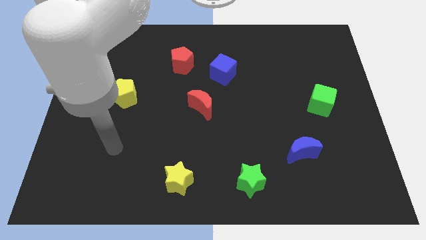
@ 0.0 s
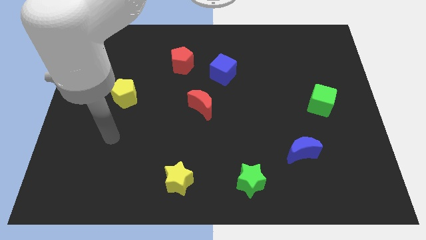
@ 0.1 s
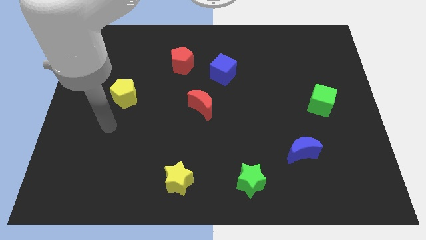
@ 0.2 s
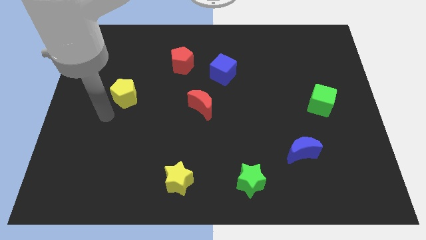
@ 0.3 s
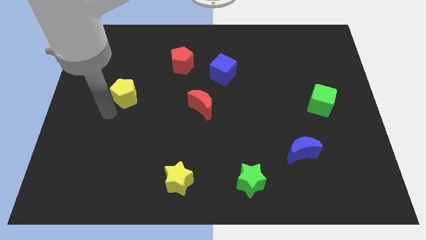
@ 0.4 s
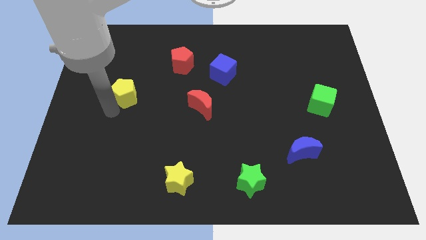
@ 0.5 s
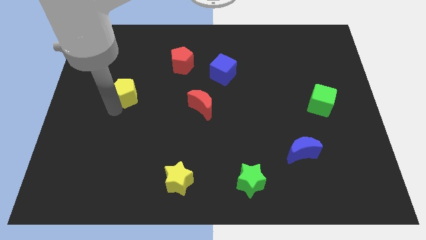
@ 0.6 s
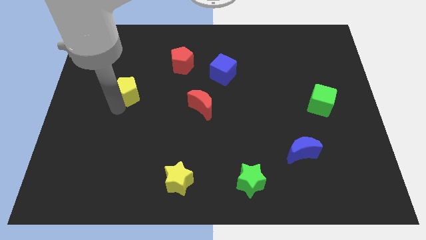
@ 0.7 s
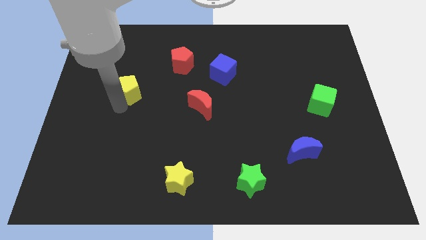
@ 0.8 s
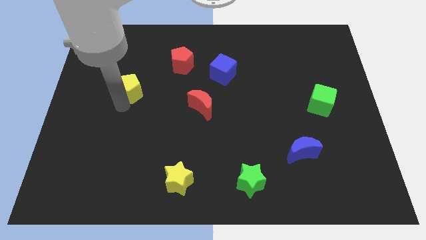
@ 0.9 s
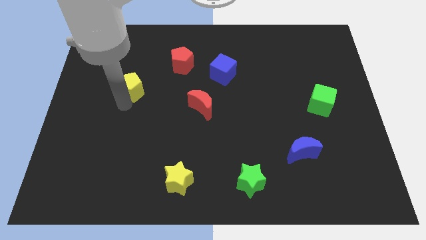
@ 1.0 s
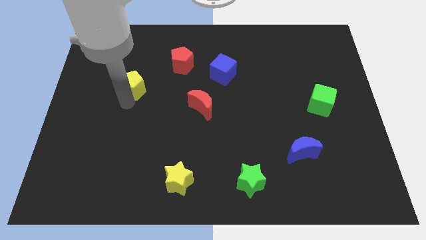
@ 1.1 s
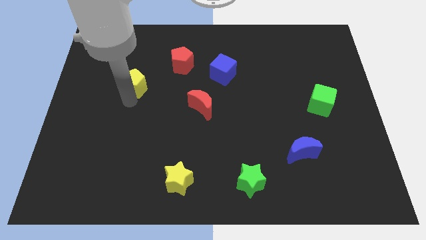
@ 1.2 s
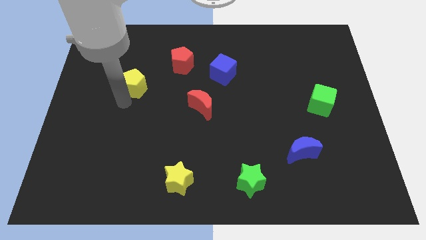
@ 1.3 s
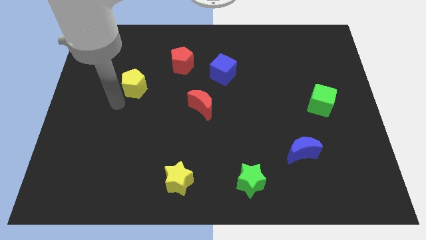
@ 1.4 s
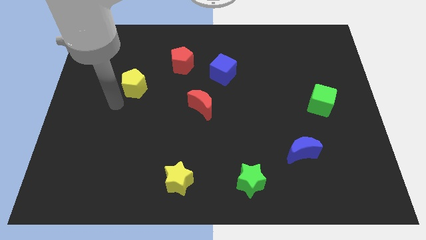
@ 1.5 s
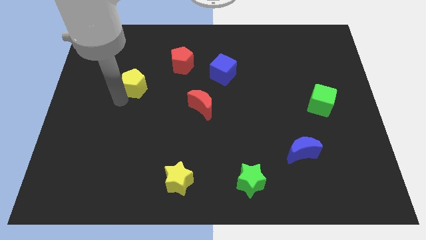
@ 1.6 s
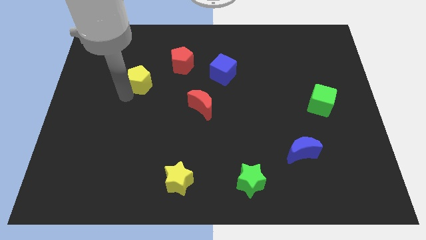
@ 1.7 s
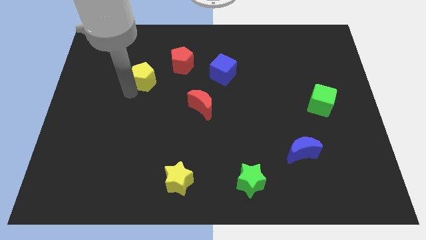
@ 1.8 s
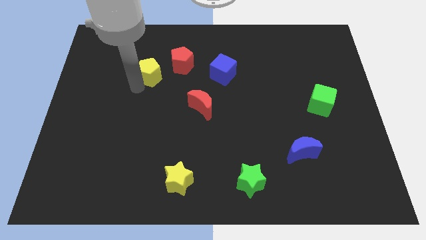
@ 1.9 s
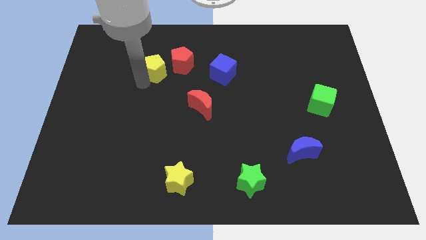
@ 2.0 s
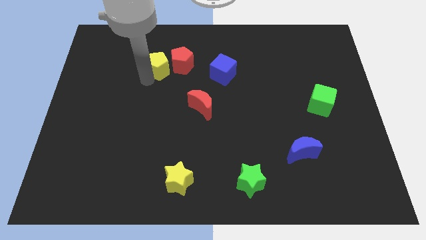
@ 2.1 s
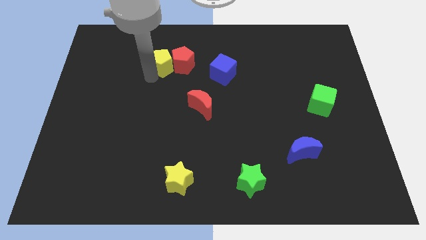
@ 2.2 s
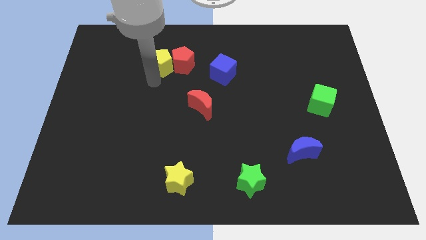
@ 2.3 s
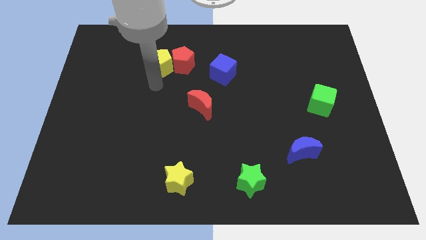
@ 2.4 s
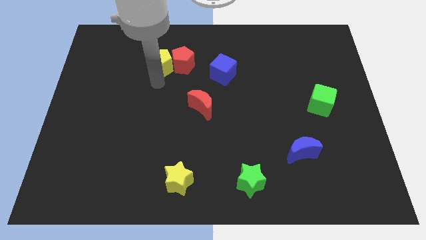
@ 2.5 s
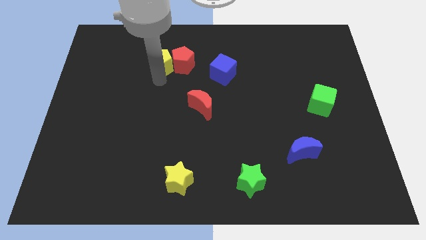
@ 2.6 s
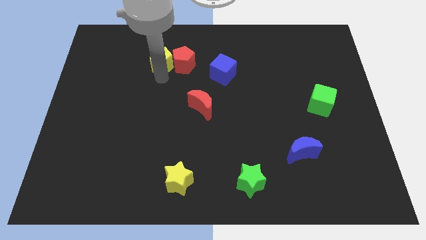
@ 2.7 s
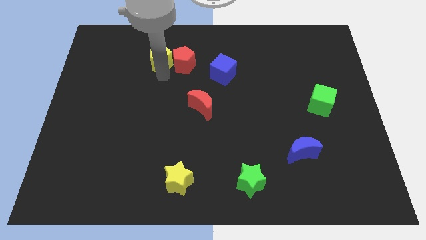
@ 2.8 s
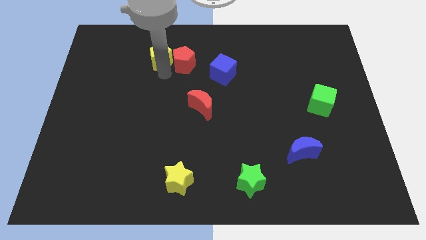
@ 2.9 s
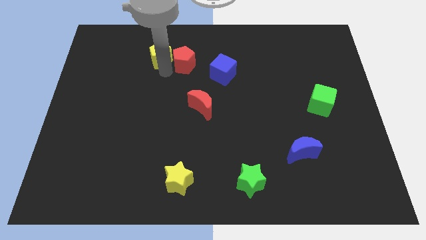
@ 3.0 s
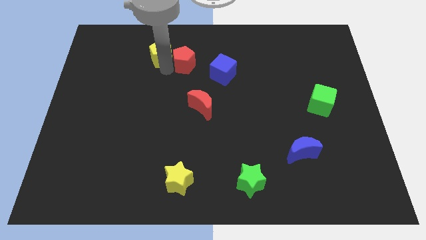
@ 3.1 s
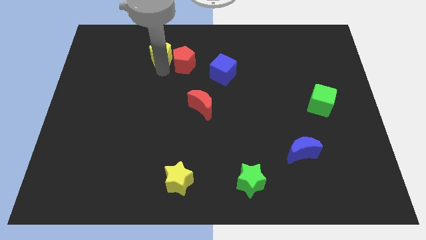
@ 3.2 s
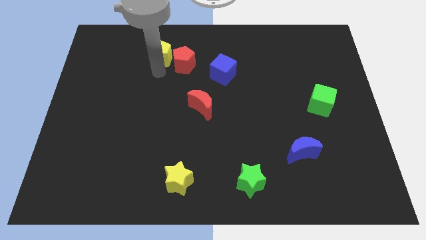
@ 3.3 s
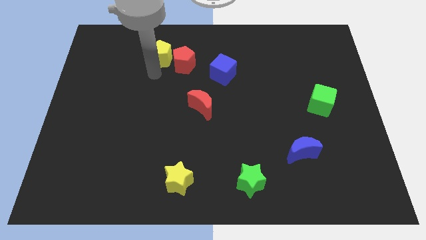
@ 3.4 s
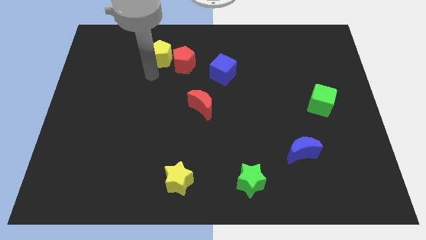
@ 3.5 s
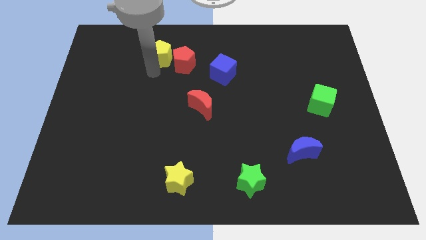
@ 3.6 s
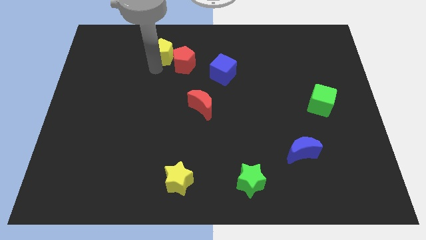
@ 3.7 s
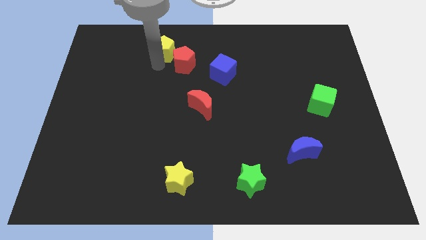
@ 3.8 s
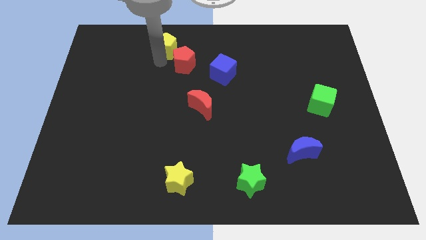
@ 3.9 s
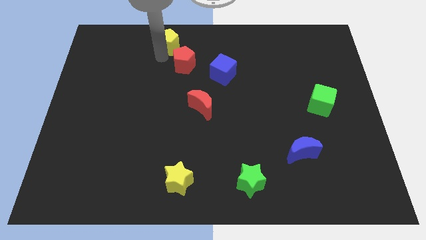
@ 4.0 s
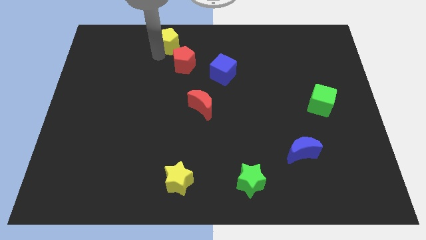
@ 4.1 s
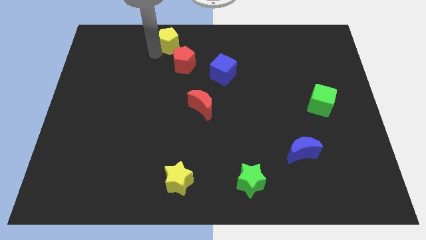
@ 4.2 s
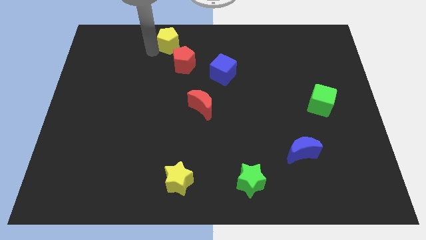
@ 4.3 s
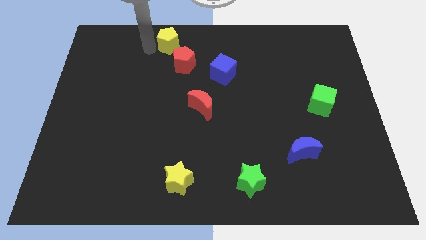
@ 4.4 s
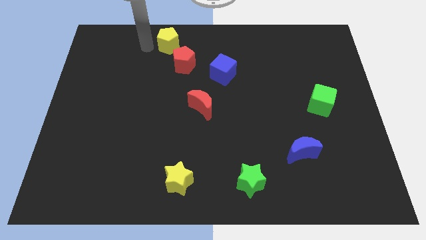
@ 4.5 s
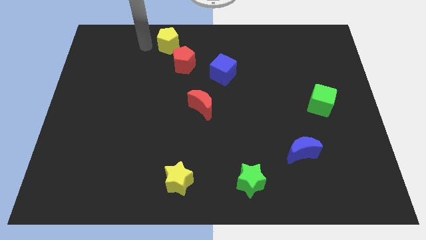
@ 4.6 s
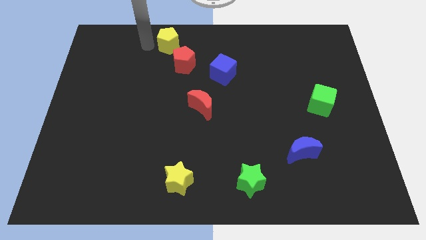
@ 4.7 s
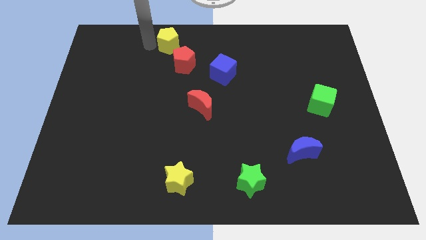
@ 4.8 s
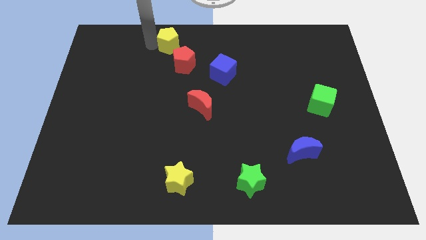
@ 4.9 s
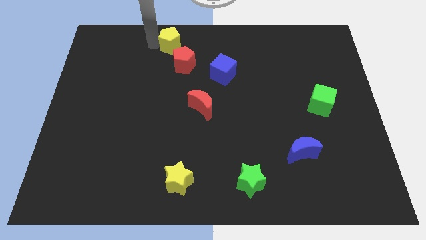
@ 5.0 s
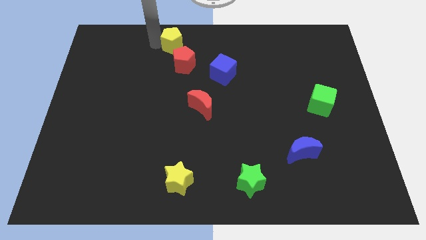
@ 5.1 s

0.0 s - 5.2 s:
push the yellow pentagon to the top side

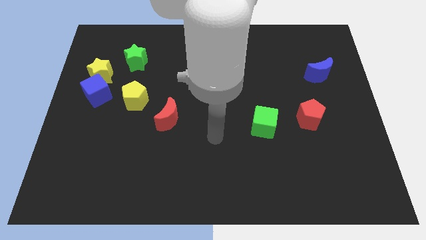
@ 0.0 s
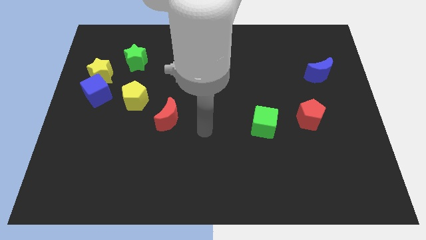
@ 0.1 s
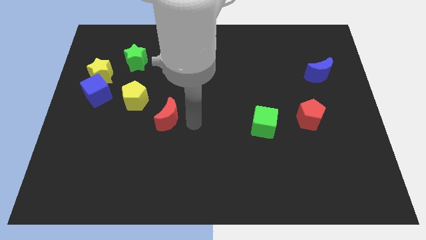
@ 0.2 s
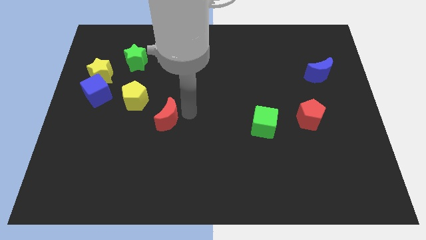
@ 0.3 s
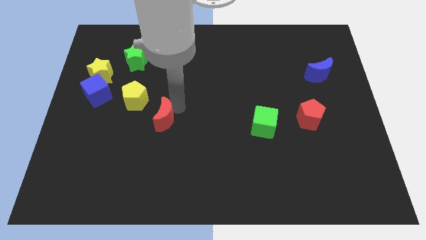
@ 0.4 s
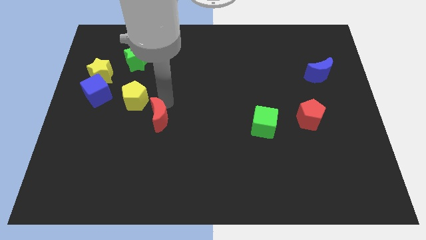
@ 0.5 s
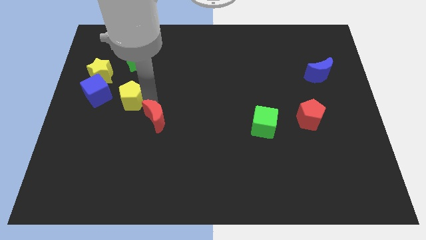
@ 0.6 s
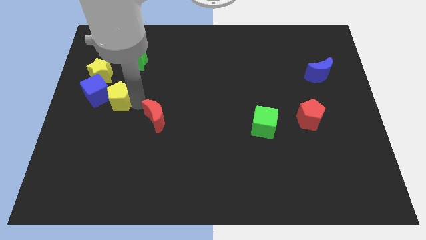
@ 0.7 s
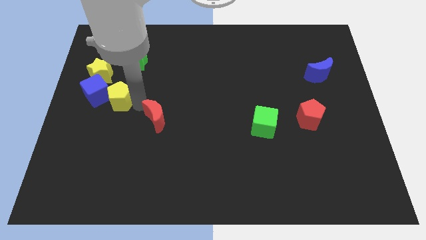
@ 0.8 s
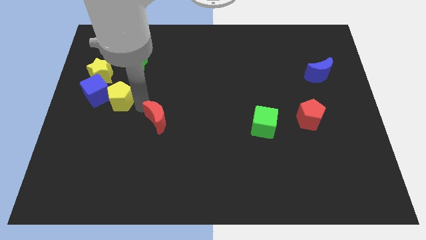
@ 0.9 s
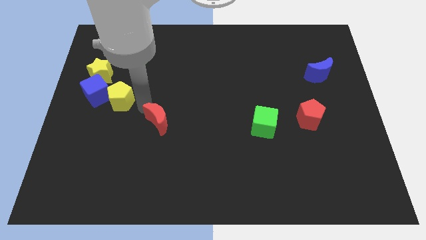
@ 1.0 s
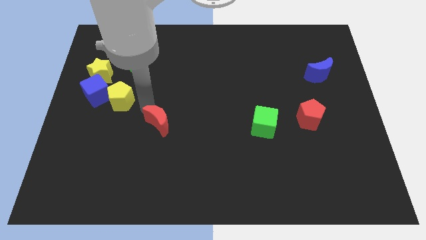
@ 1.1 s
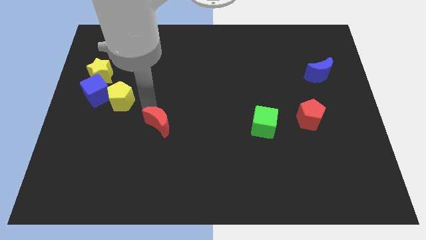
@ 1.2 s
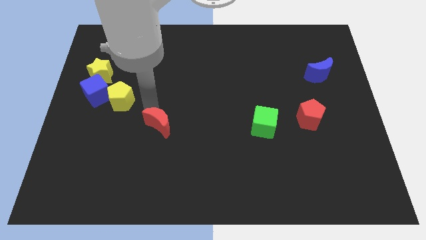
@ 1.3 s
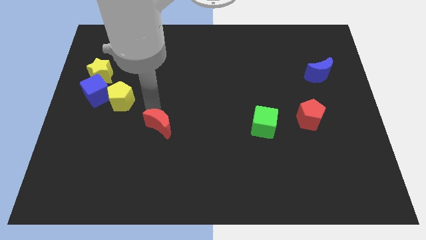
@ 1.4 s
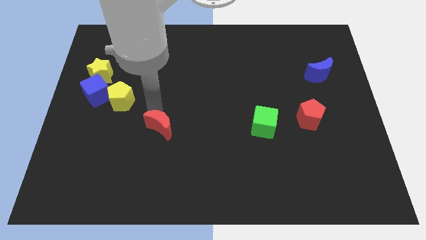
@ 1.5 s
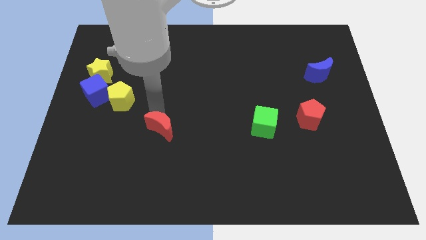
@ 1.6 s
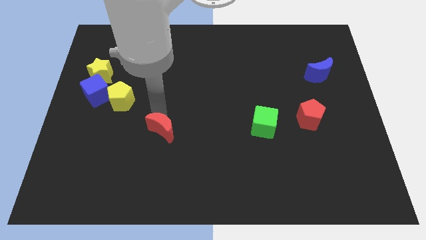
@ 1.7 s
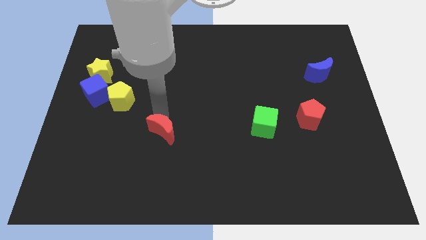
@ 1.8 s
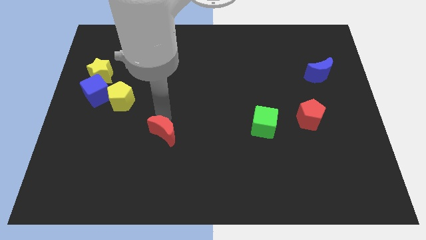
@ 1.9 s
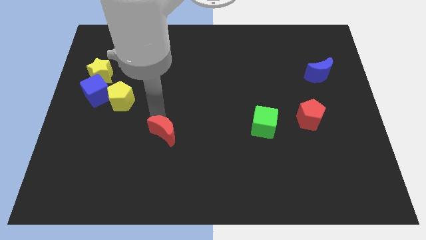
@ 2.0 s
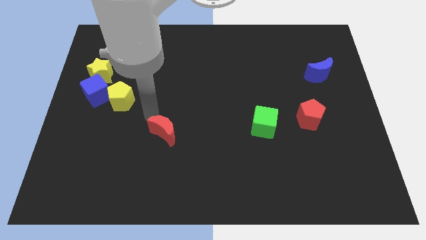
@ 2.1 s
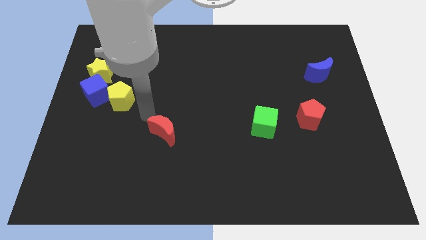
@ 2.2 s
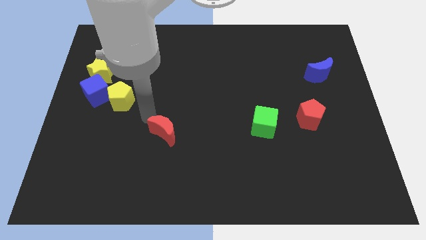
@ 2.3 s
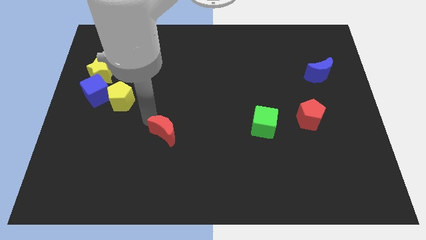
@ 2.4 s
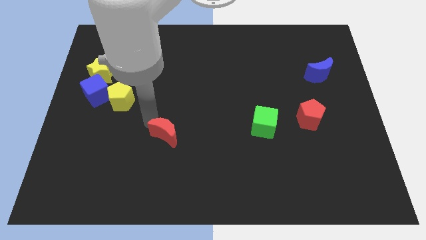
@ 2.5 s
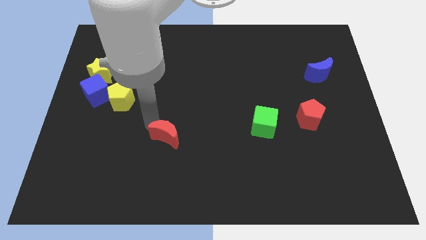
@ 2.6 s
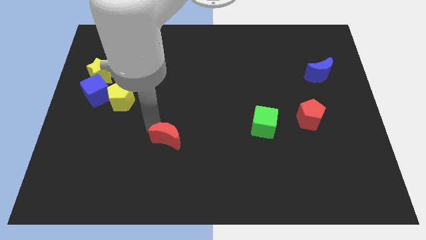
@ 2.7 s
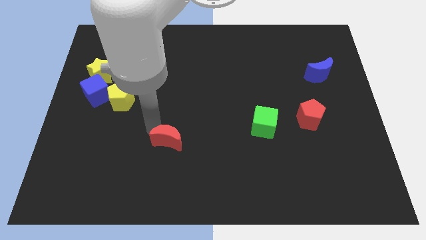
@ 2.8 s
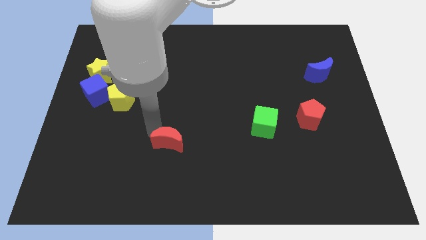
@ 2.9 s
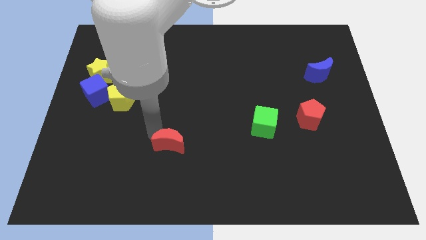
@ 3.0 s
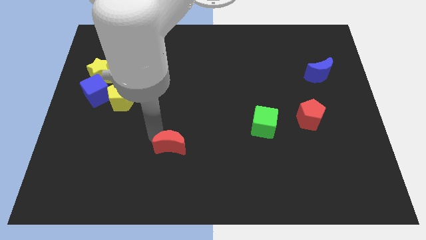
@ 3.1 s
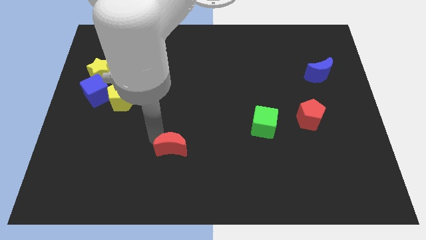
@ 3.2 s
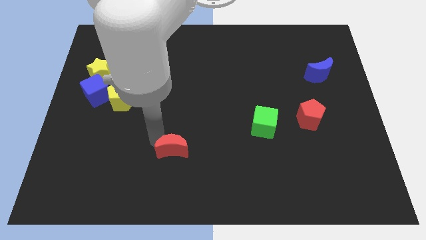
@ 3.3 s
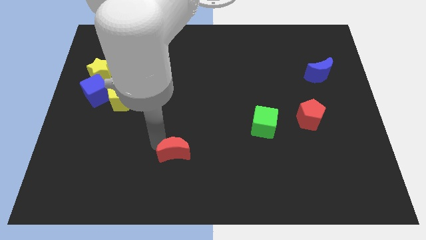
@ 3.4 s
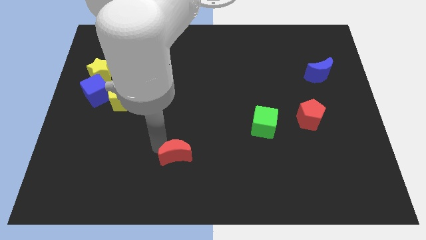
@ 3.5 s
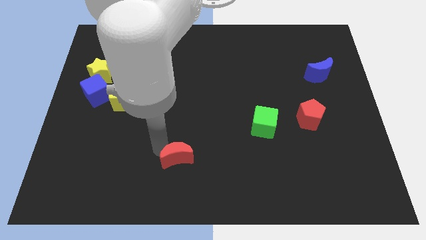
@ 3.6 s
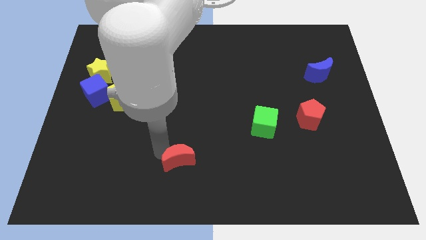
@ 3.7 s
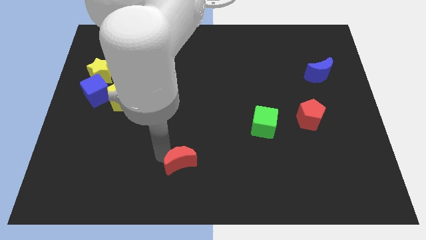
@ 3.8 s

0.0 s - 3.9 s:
push the red moon to the bottom side
